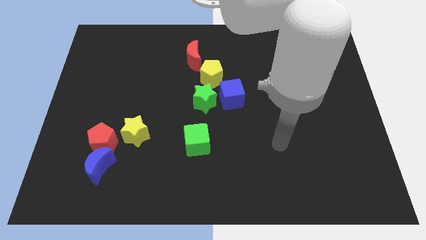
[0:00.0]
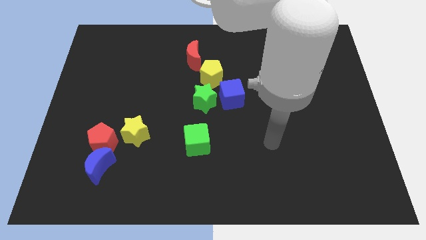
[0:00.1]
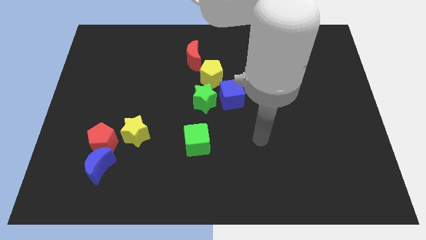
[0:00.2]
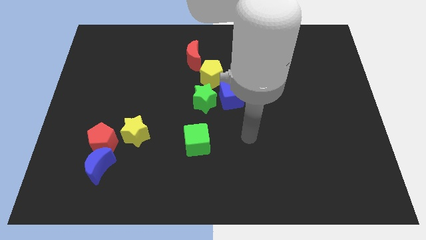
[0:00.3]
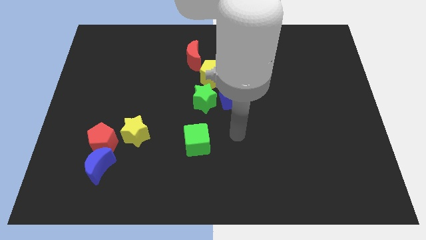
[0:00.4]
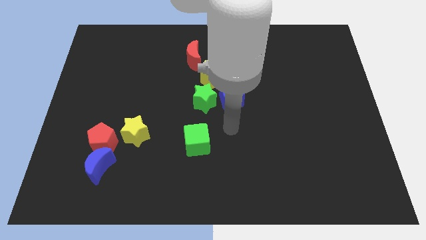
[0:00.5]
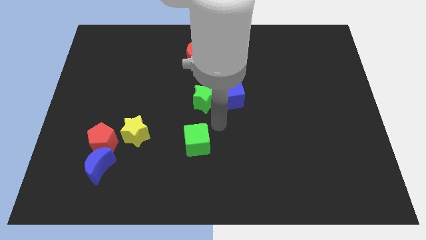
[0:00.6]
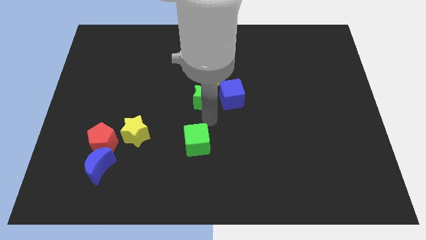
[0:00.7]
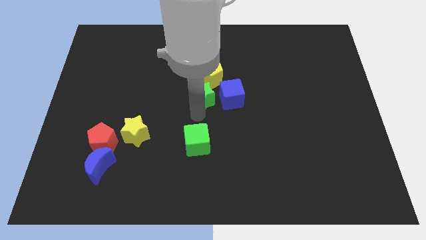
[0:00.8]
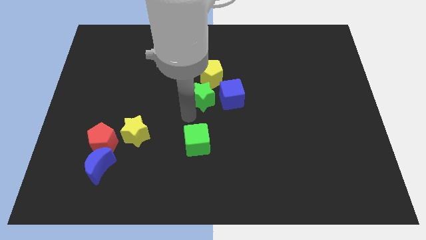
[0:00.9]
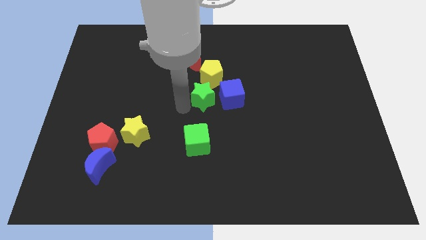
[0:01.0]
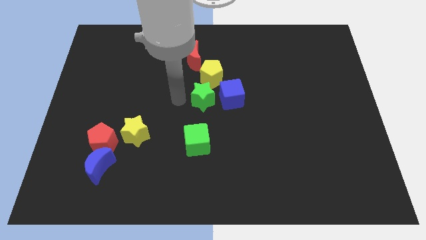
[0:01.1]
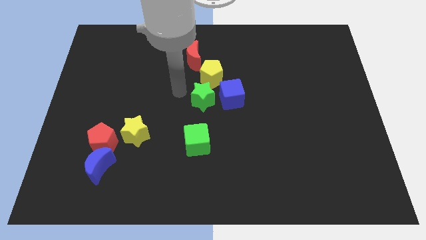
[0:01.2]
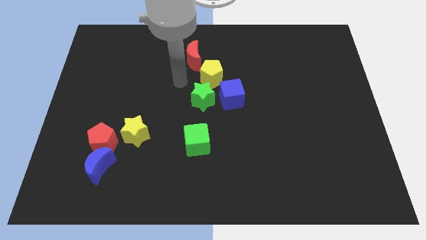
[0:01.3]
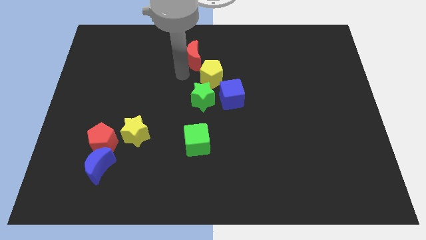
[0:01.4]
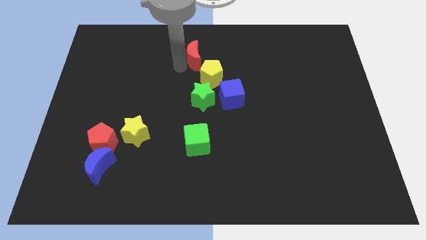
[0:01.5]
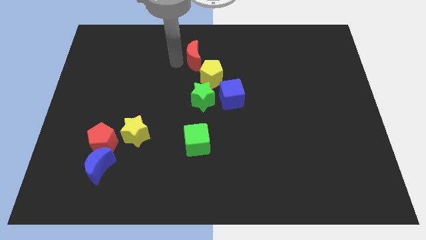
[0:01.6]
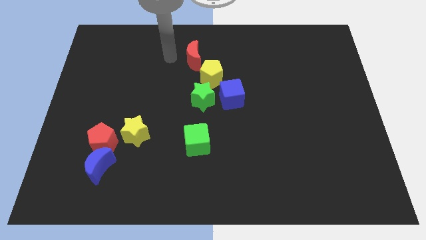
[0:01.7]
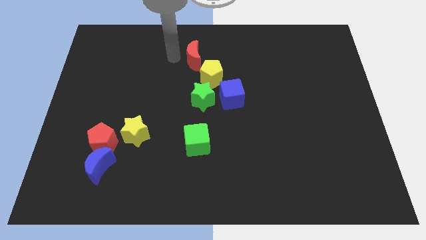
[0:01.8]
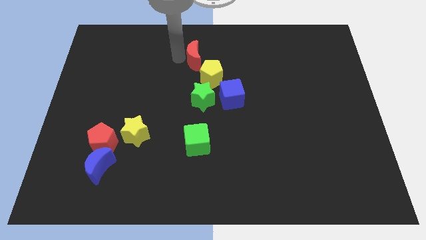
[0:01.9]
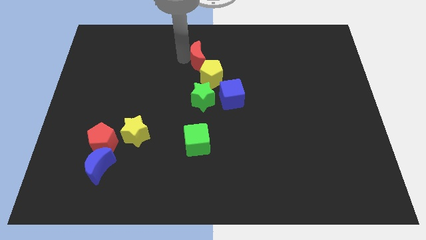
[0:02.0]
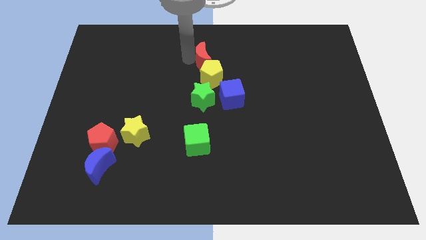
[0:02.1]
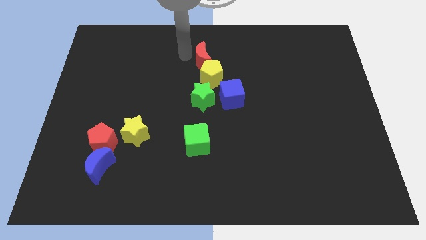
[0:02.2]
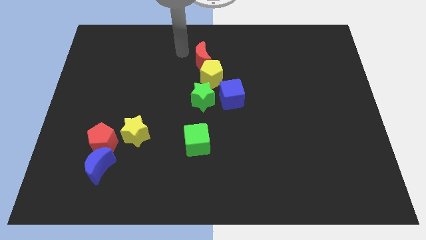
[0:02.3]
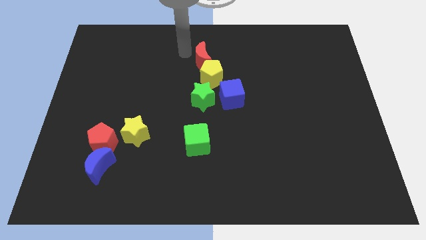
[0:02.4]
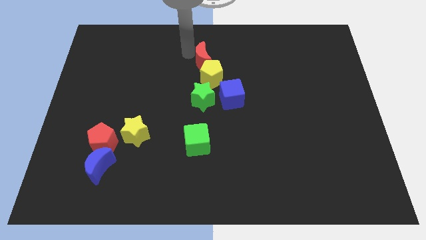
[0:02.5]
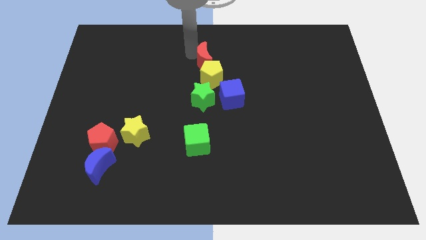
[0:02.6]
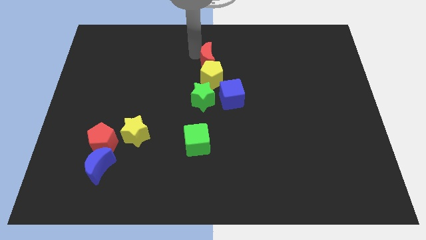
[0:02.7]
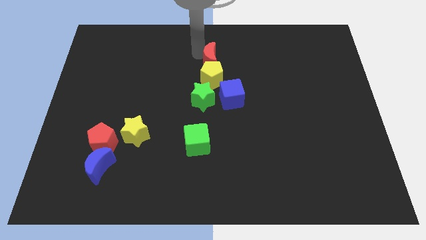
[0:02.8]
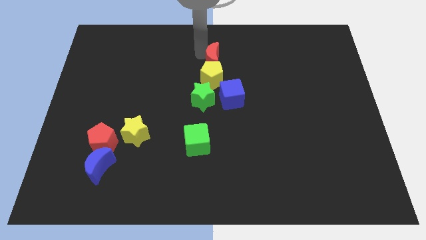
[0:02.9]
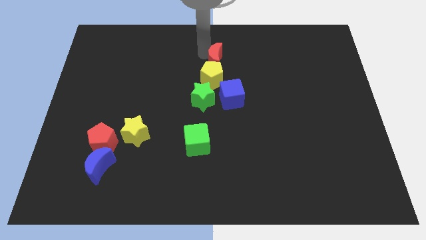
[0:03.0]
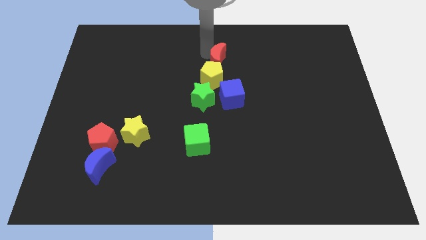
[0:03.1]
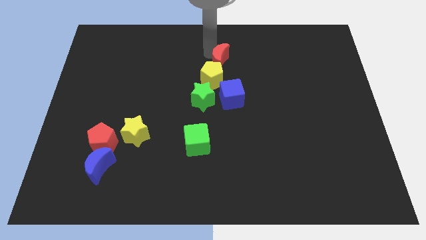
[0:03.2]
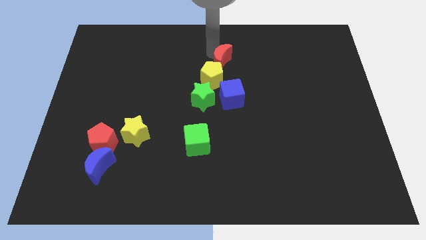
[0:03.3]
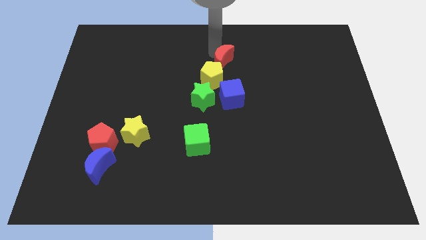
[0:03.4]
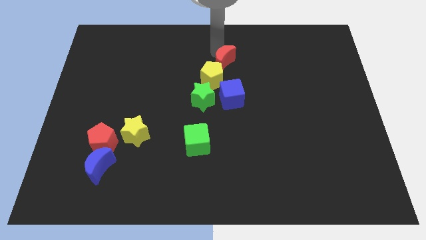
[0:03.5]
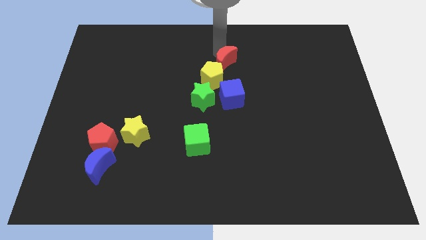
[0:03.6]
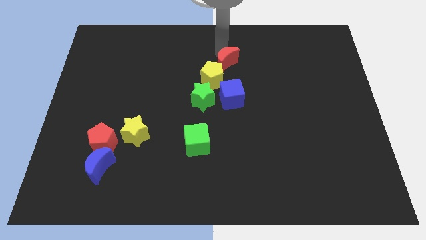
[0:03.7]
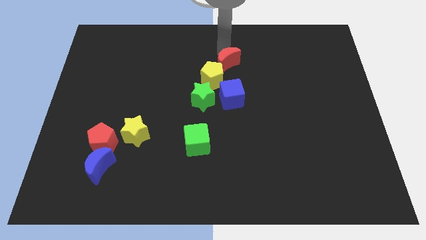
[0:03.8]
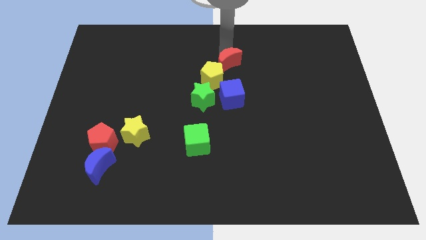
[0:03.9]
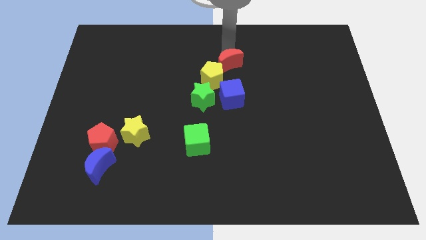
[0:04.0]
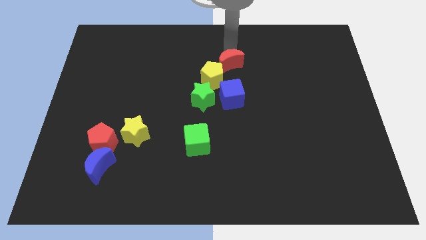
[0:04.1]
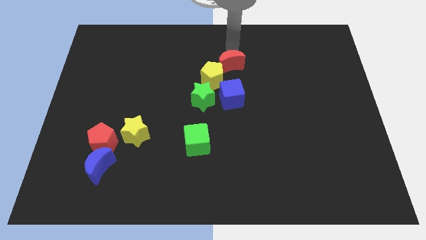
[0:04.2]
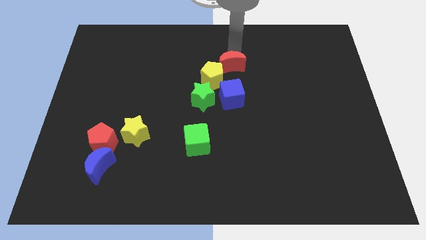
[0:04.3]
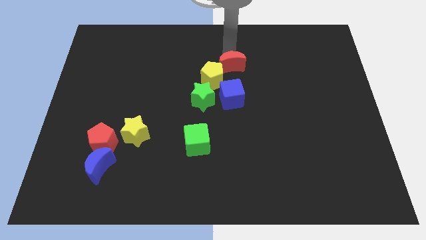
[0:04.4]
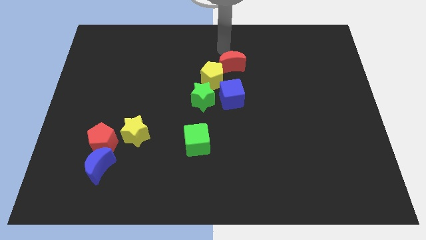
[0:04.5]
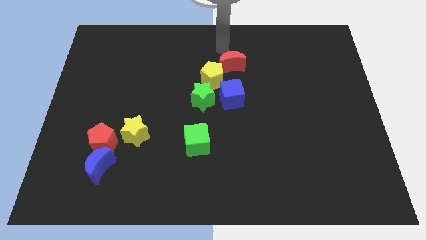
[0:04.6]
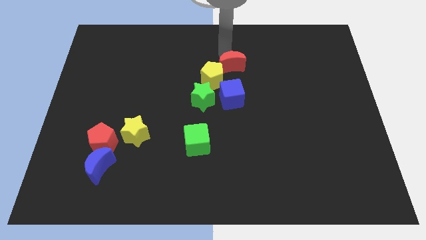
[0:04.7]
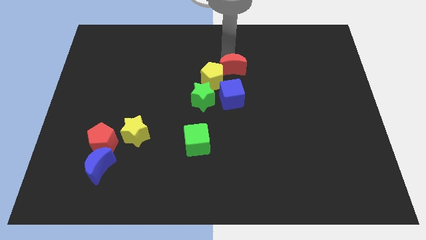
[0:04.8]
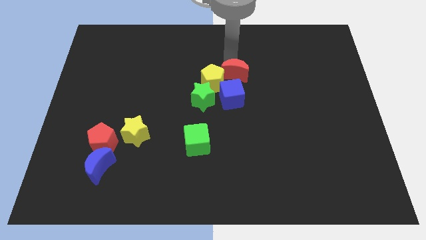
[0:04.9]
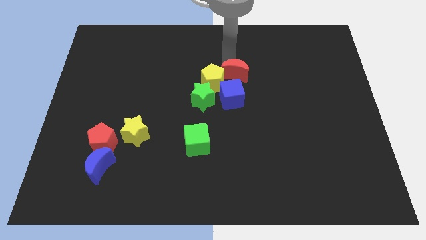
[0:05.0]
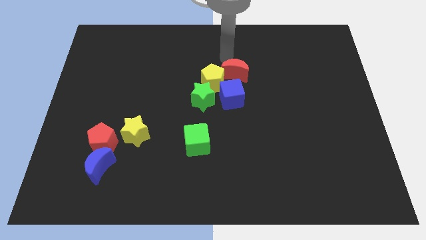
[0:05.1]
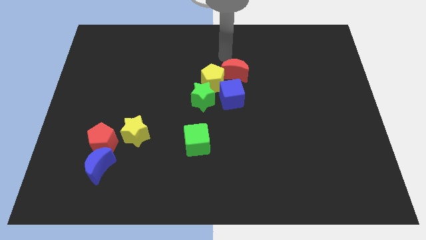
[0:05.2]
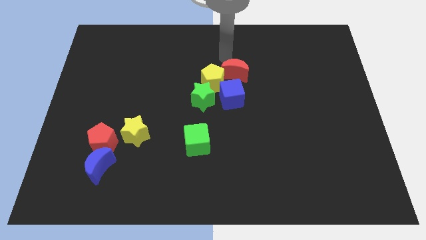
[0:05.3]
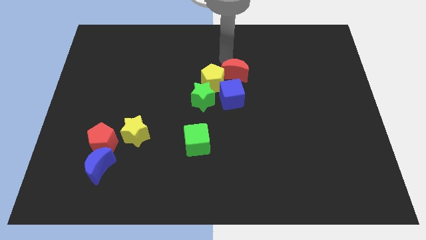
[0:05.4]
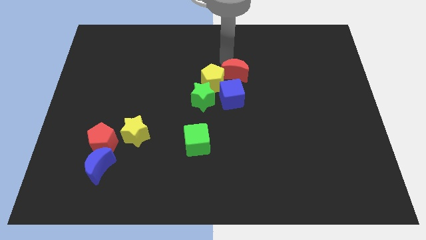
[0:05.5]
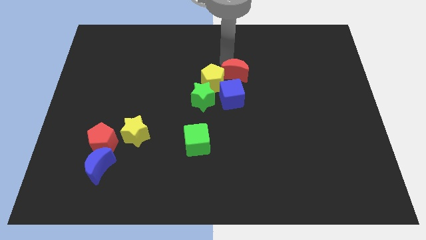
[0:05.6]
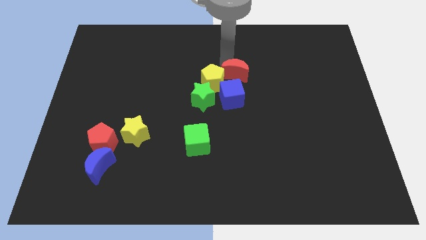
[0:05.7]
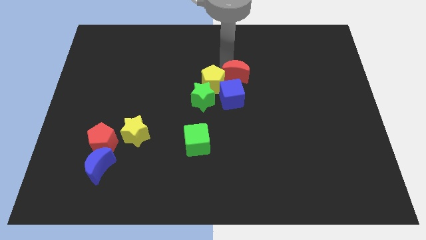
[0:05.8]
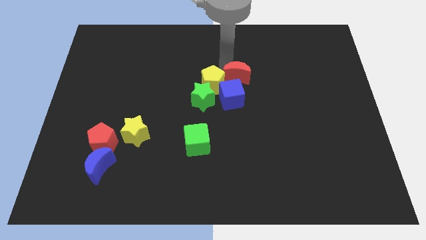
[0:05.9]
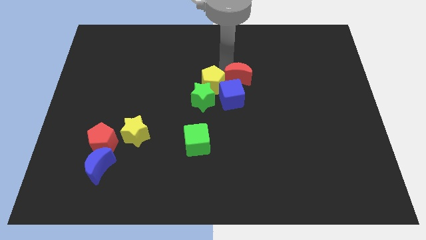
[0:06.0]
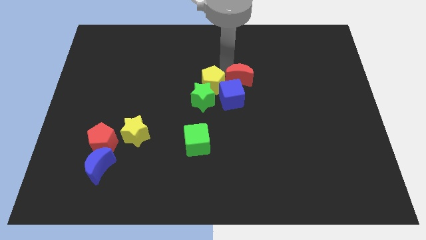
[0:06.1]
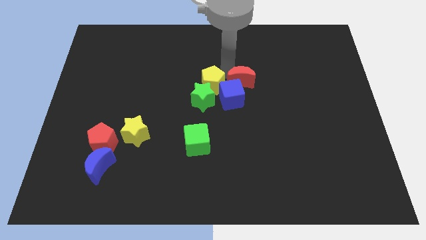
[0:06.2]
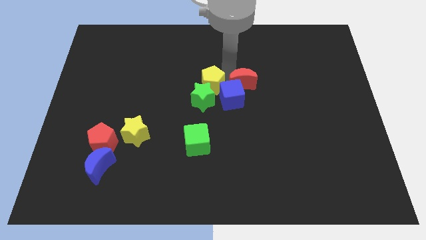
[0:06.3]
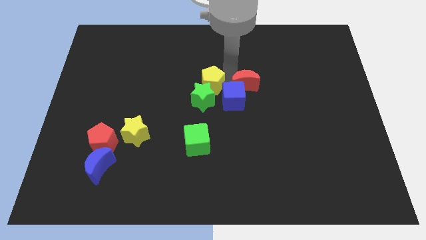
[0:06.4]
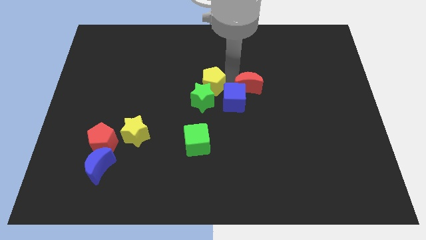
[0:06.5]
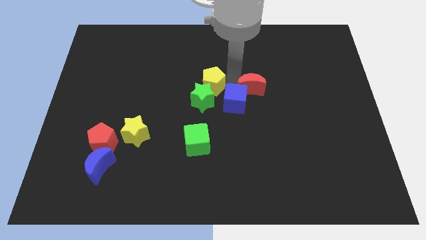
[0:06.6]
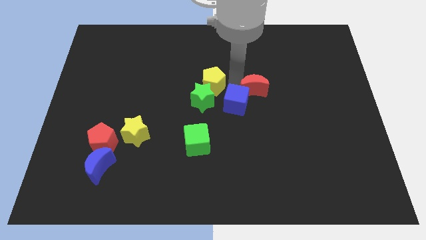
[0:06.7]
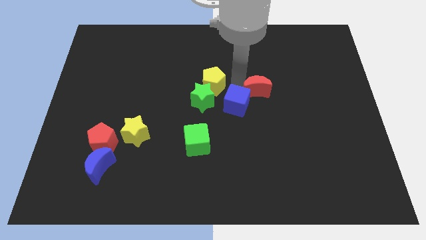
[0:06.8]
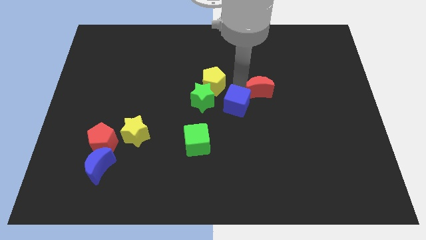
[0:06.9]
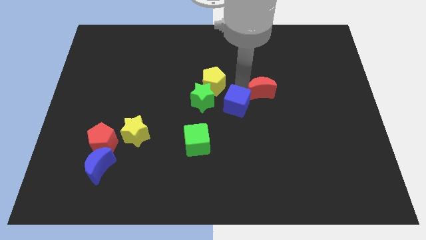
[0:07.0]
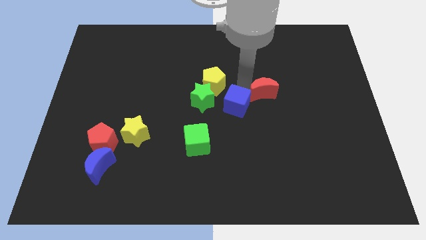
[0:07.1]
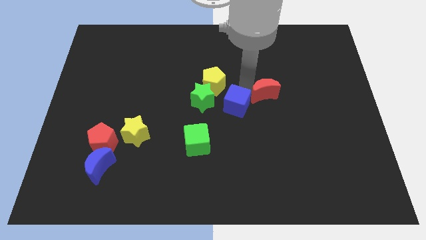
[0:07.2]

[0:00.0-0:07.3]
move the red moon downwards and right

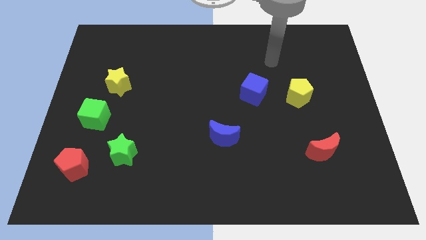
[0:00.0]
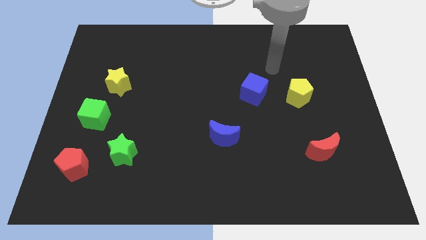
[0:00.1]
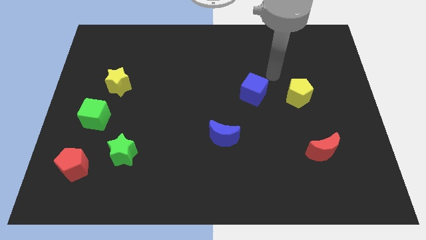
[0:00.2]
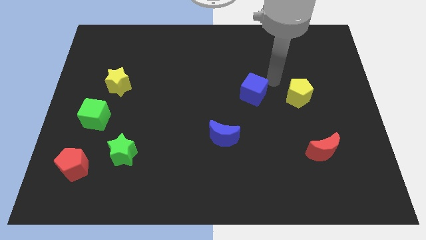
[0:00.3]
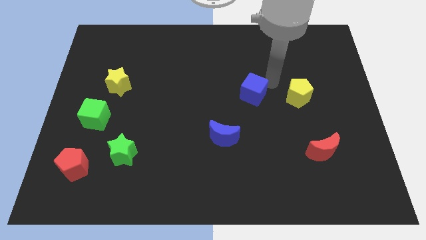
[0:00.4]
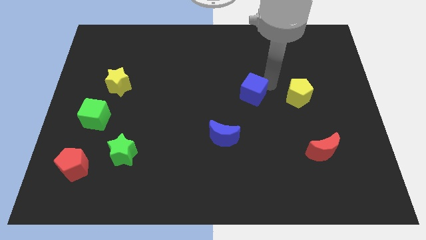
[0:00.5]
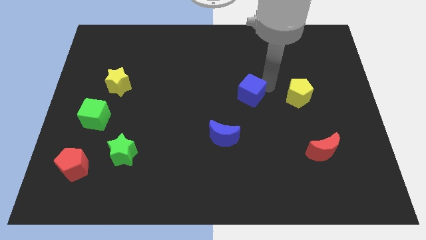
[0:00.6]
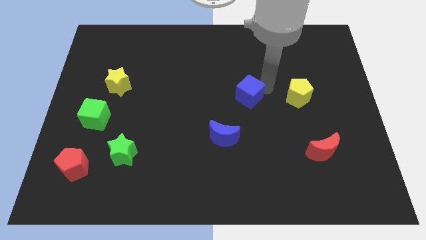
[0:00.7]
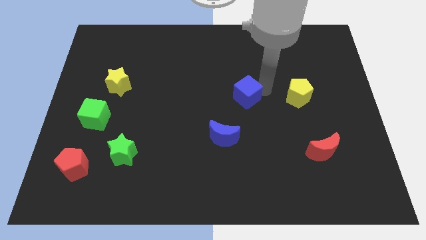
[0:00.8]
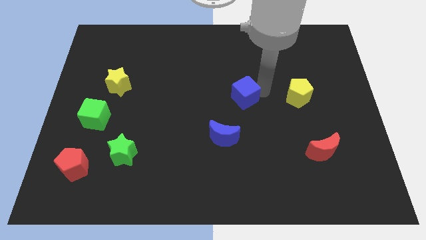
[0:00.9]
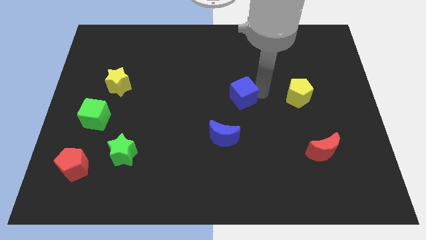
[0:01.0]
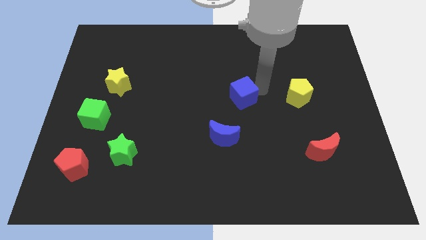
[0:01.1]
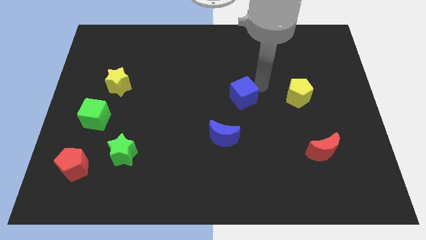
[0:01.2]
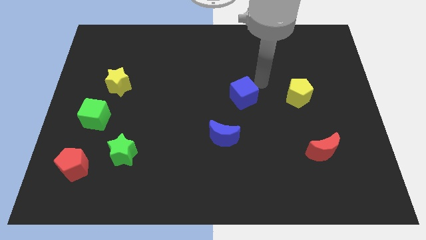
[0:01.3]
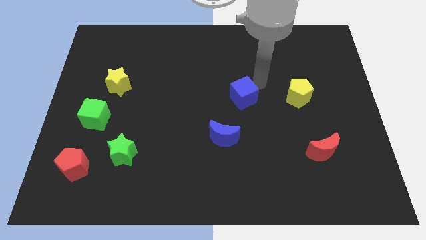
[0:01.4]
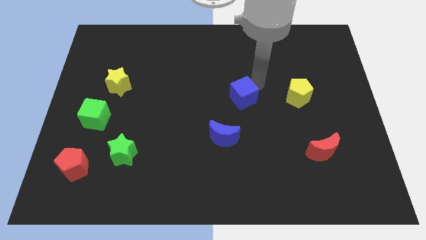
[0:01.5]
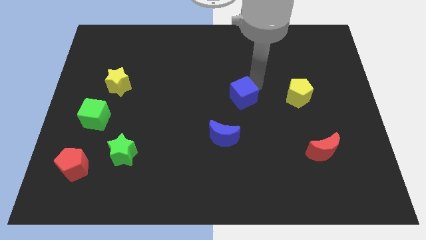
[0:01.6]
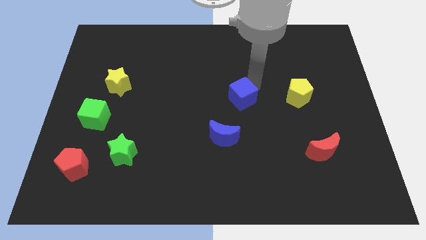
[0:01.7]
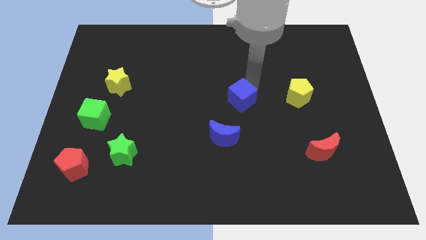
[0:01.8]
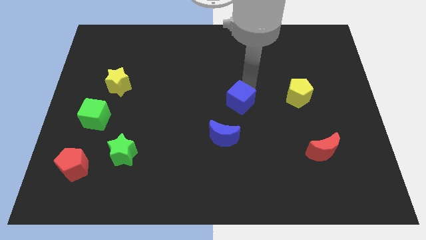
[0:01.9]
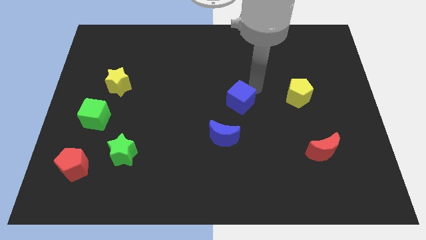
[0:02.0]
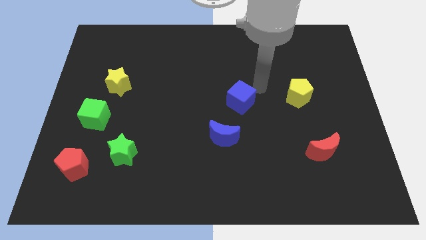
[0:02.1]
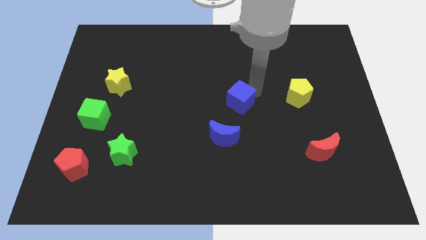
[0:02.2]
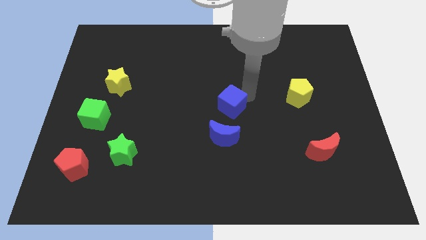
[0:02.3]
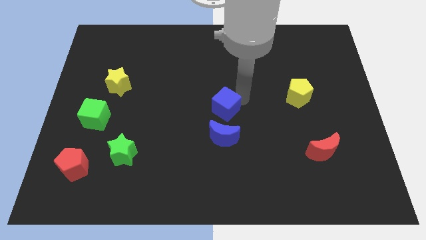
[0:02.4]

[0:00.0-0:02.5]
push the blue cube down and then left somewhat
